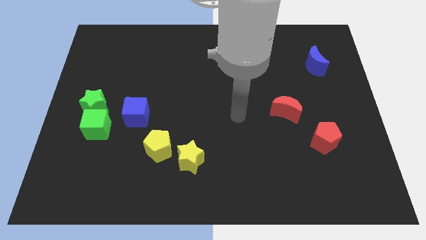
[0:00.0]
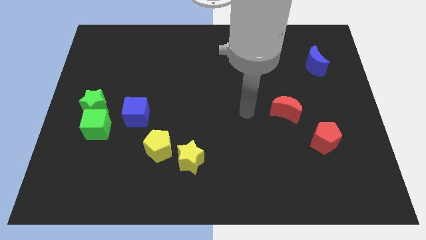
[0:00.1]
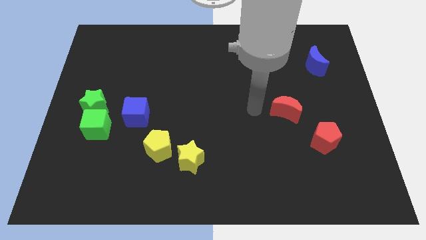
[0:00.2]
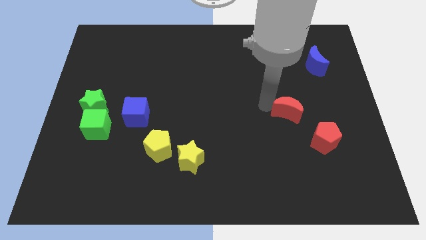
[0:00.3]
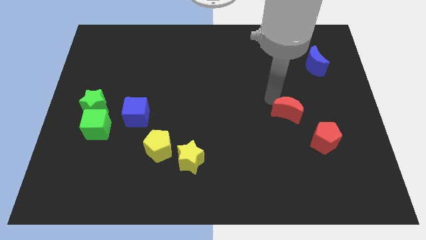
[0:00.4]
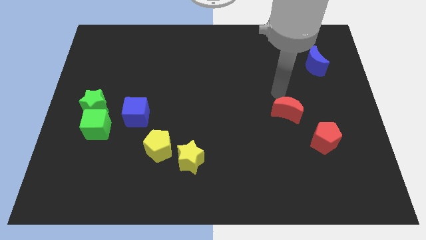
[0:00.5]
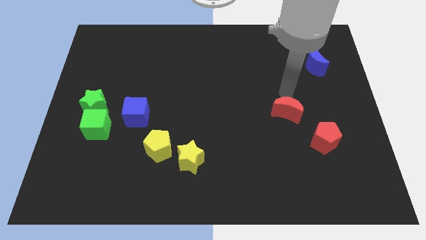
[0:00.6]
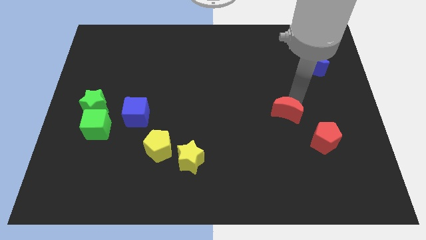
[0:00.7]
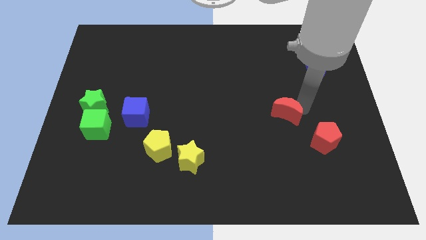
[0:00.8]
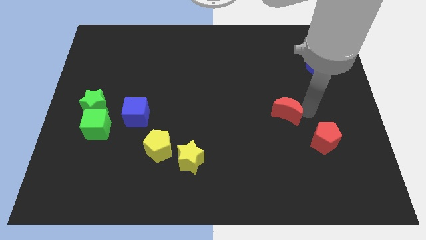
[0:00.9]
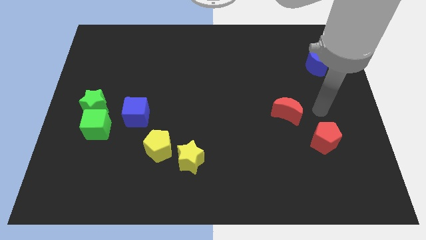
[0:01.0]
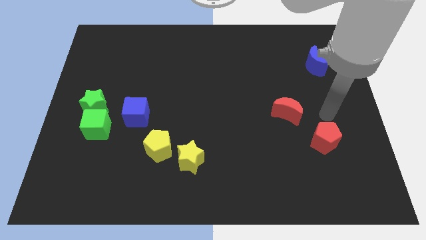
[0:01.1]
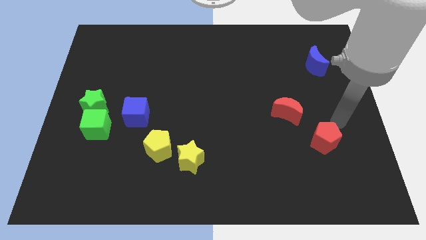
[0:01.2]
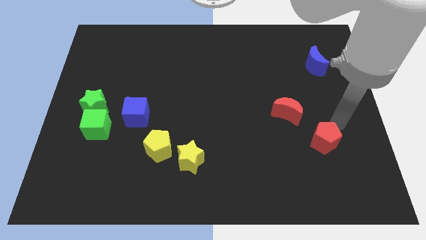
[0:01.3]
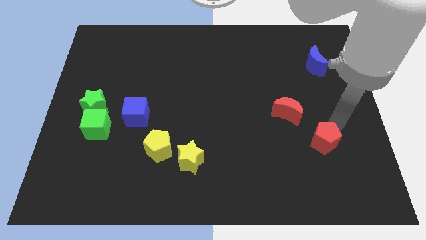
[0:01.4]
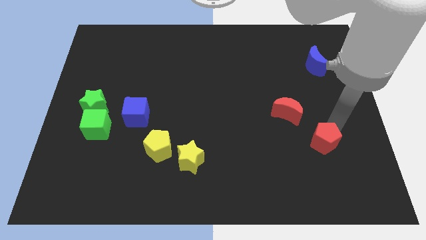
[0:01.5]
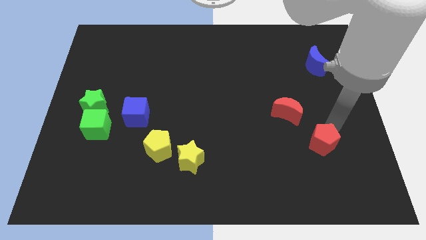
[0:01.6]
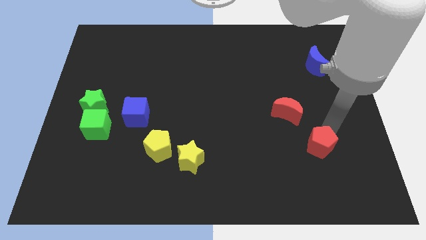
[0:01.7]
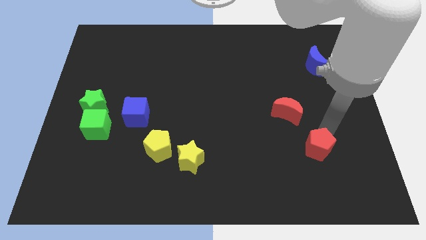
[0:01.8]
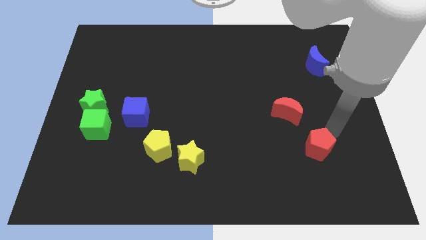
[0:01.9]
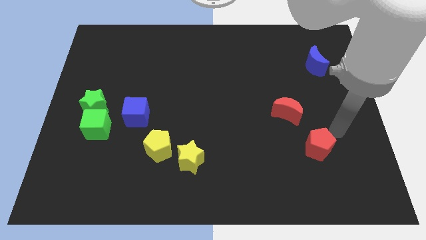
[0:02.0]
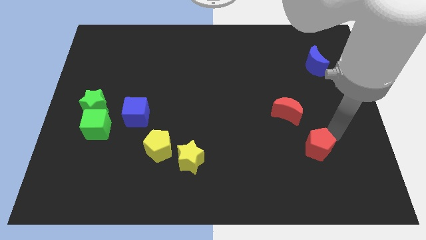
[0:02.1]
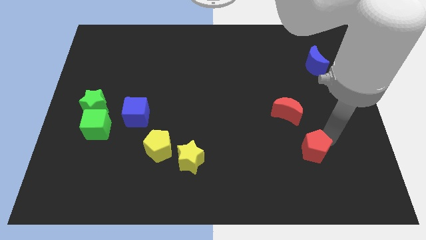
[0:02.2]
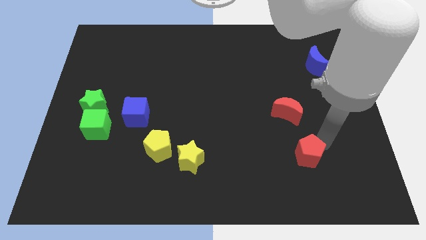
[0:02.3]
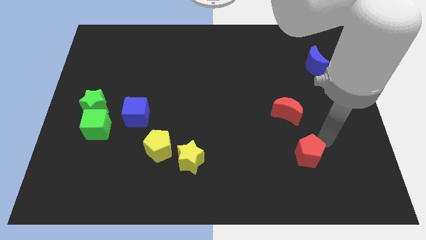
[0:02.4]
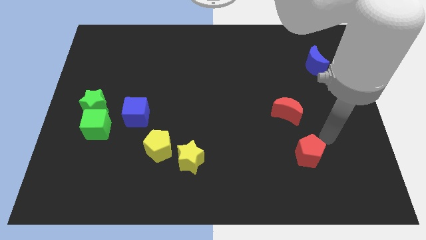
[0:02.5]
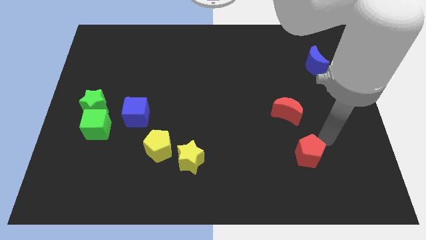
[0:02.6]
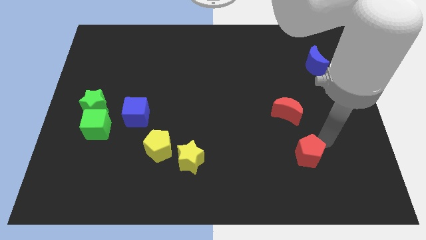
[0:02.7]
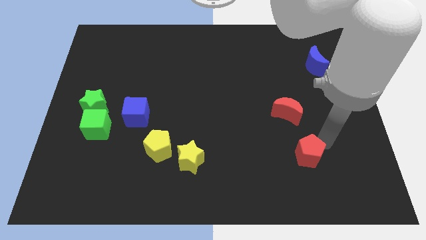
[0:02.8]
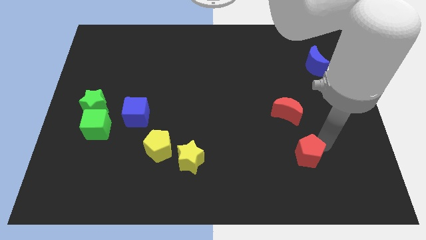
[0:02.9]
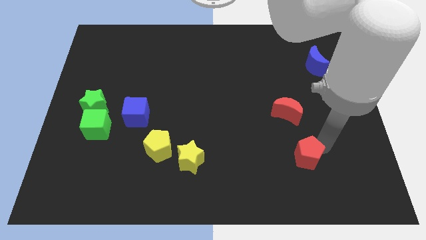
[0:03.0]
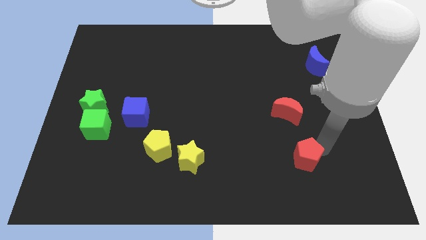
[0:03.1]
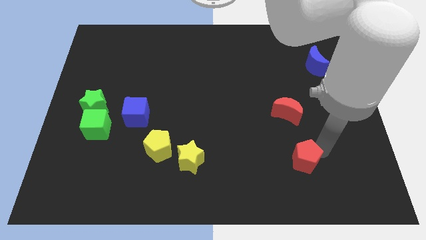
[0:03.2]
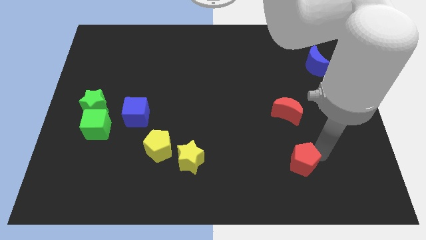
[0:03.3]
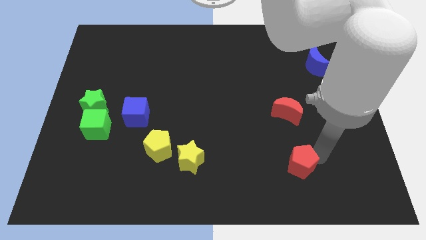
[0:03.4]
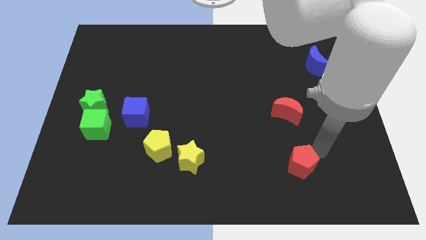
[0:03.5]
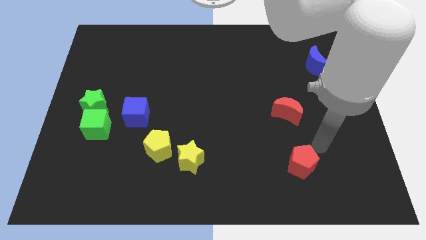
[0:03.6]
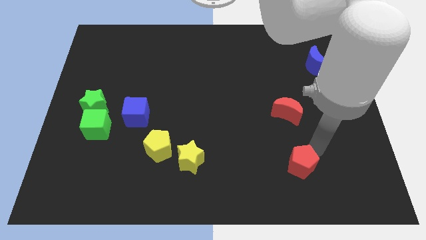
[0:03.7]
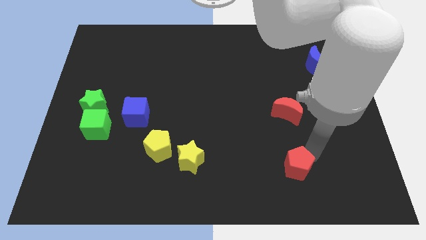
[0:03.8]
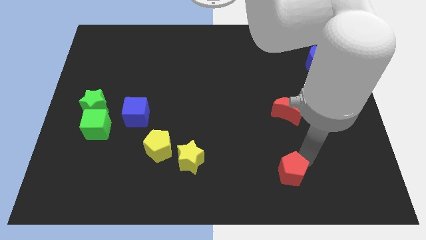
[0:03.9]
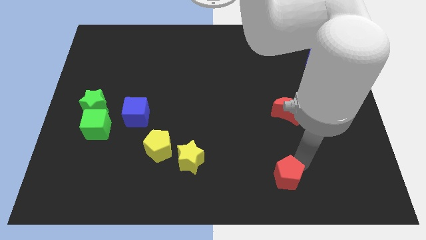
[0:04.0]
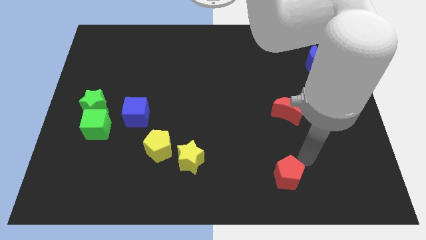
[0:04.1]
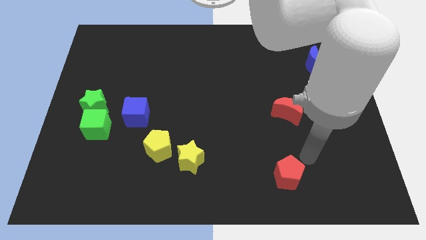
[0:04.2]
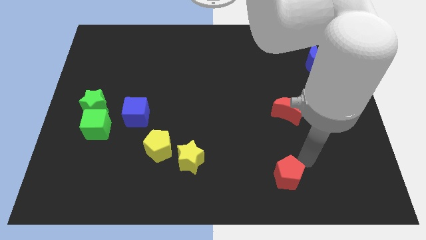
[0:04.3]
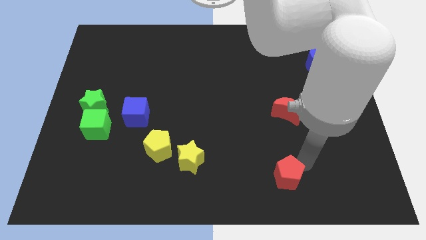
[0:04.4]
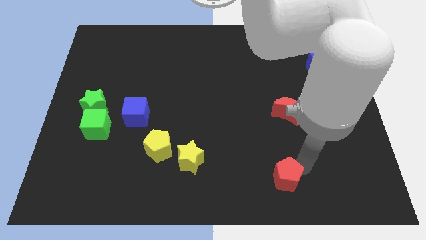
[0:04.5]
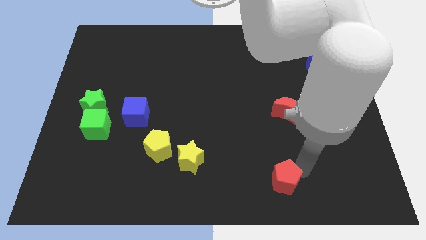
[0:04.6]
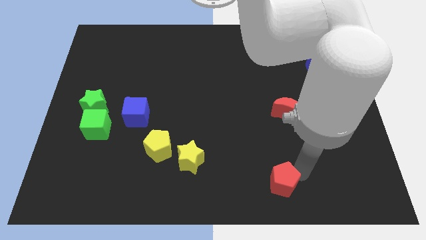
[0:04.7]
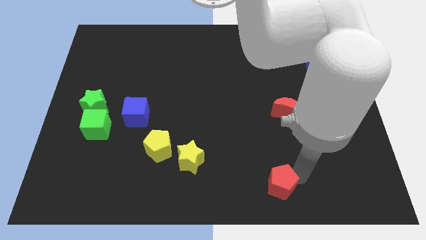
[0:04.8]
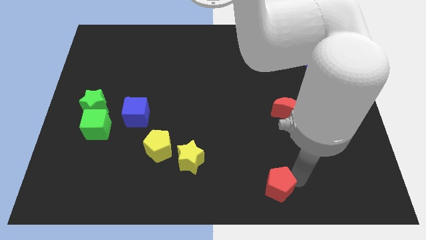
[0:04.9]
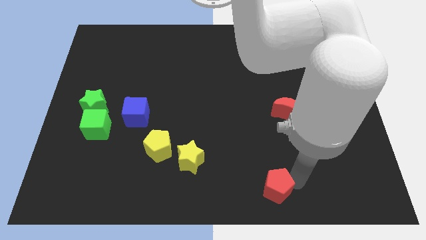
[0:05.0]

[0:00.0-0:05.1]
slide the red pentagon to the bottom

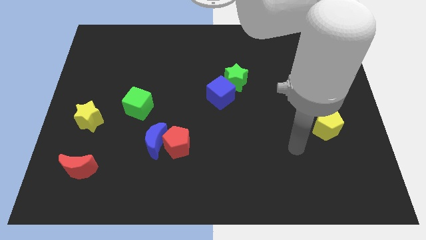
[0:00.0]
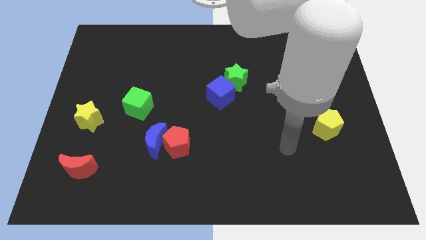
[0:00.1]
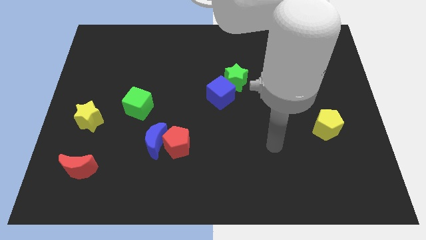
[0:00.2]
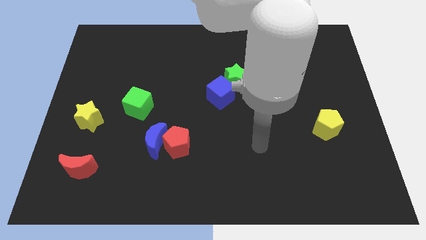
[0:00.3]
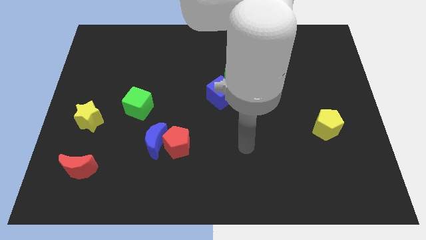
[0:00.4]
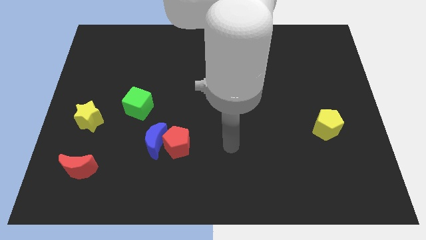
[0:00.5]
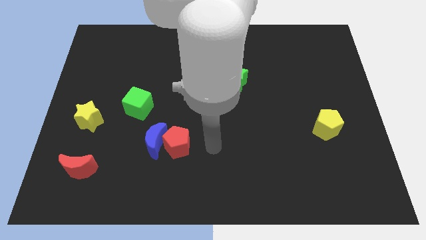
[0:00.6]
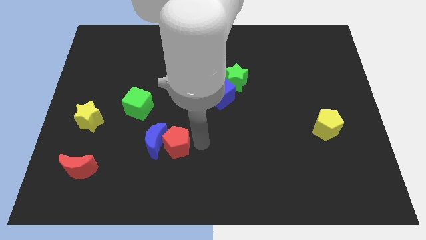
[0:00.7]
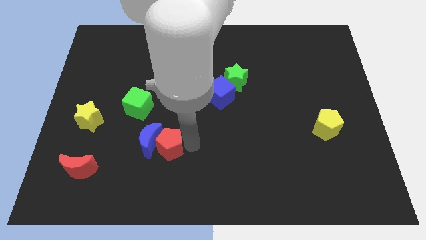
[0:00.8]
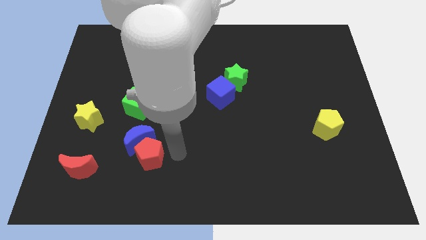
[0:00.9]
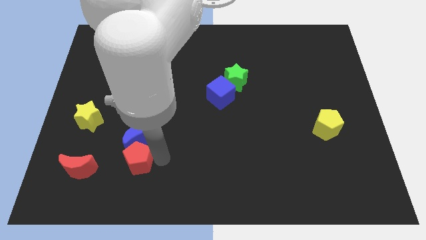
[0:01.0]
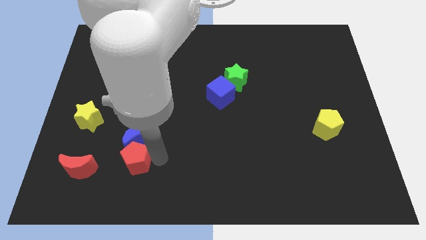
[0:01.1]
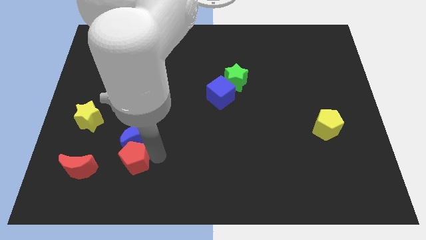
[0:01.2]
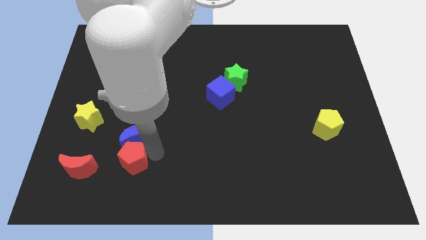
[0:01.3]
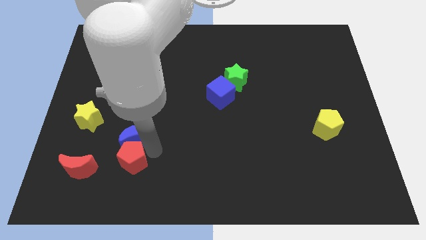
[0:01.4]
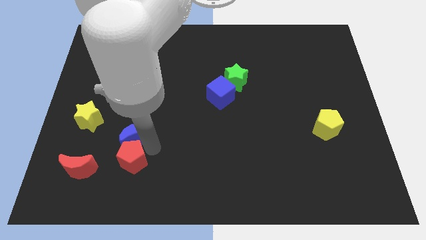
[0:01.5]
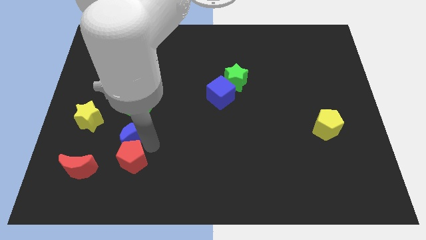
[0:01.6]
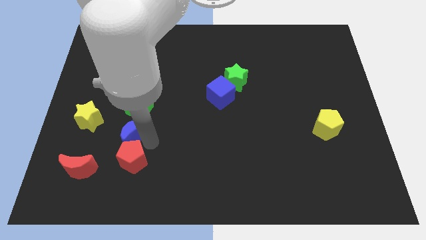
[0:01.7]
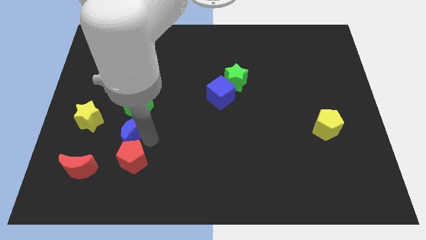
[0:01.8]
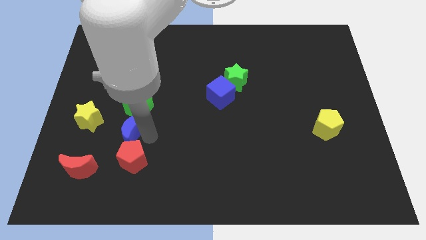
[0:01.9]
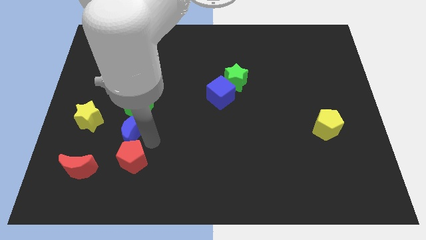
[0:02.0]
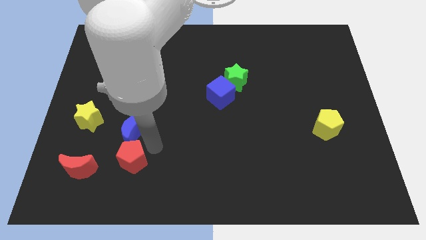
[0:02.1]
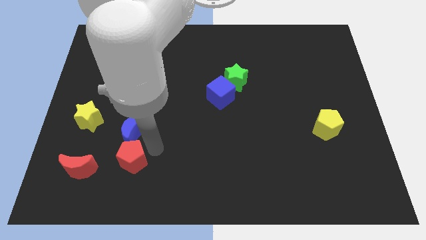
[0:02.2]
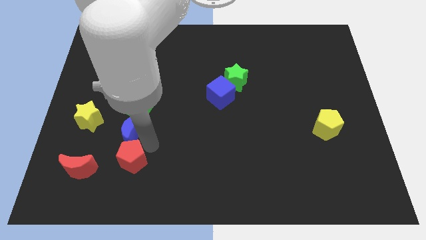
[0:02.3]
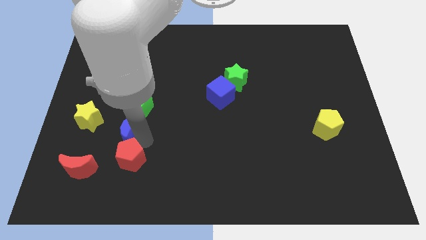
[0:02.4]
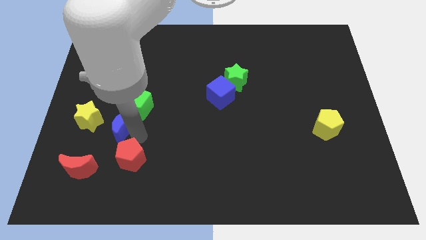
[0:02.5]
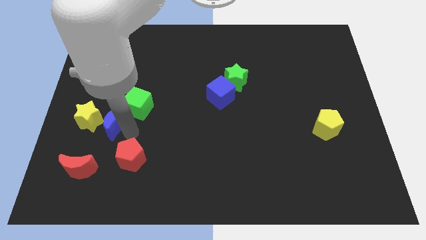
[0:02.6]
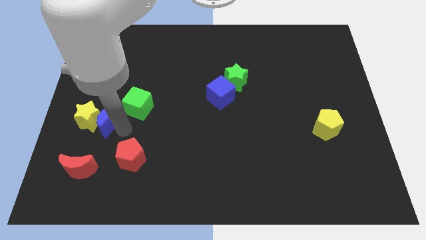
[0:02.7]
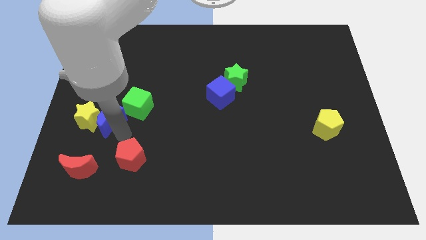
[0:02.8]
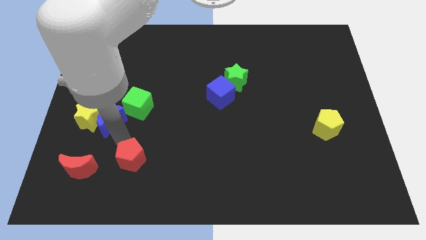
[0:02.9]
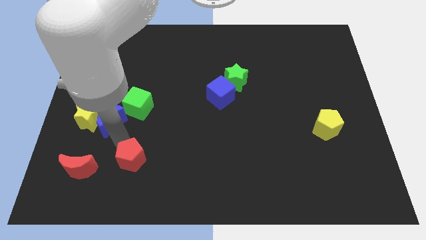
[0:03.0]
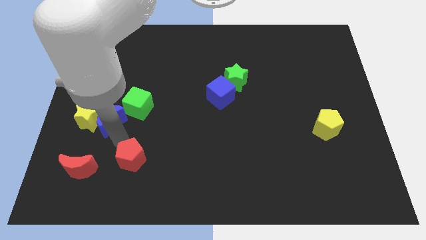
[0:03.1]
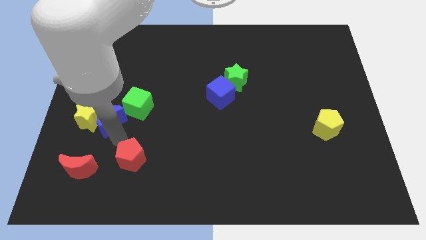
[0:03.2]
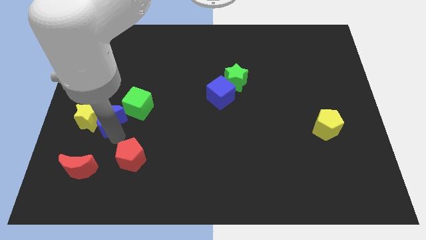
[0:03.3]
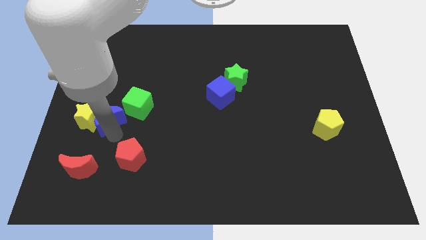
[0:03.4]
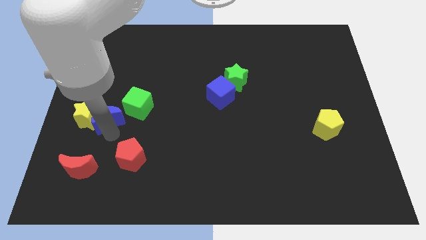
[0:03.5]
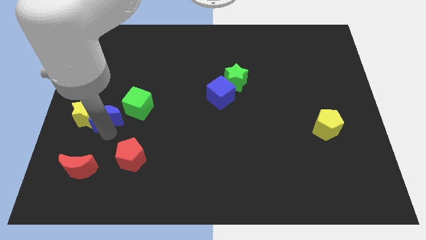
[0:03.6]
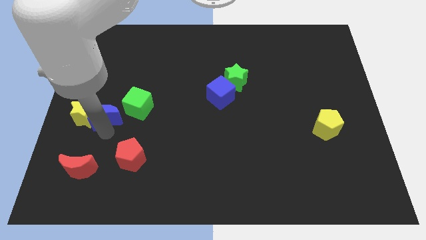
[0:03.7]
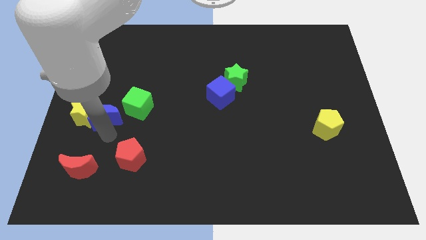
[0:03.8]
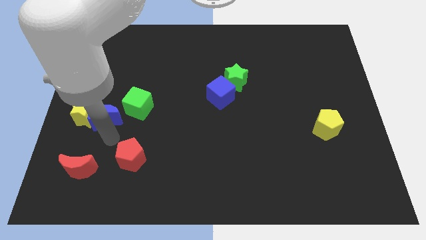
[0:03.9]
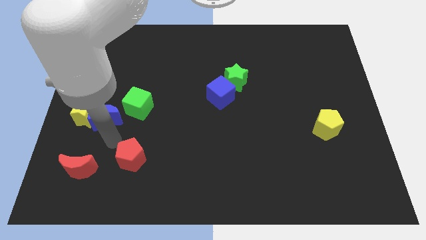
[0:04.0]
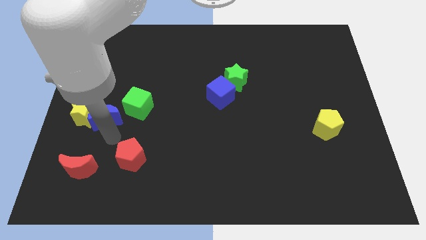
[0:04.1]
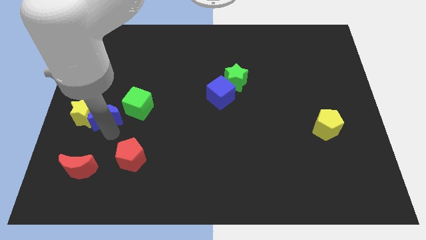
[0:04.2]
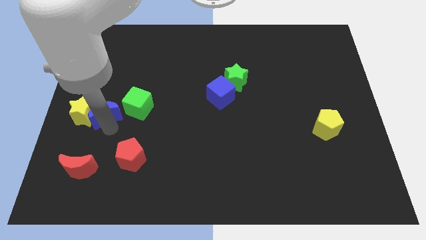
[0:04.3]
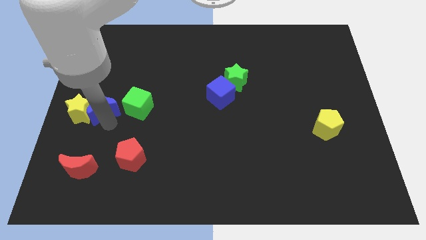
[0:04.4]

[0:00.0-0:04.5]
put the blue moon to the center left
